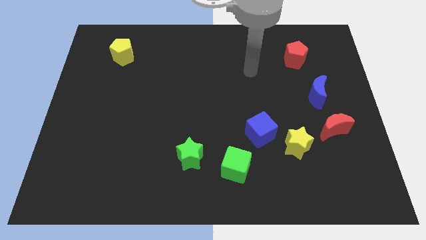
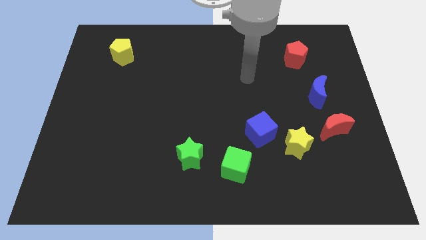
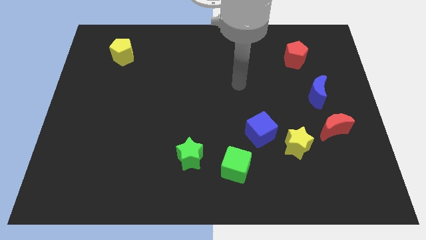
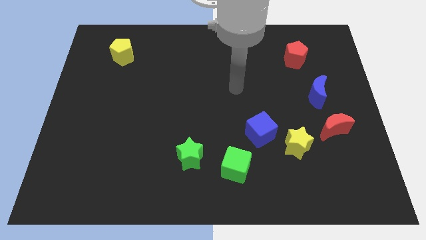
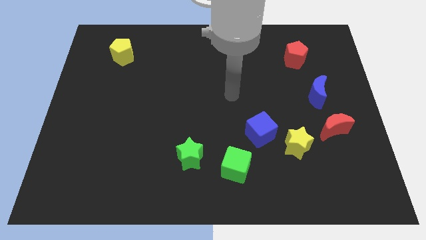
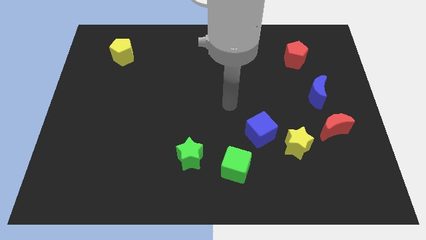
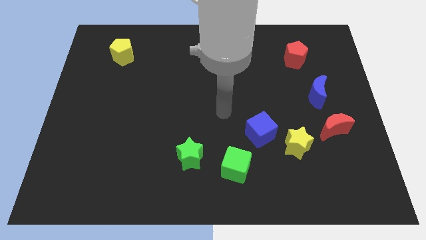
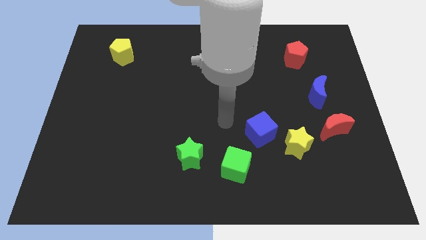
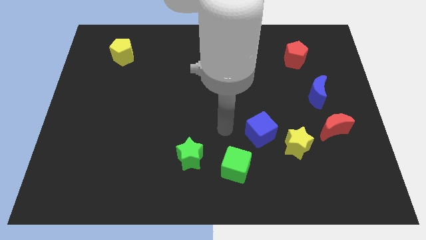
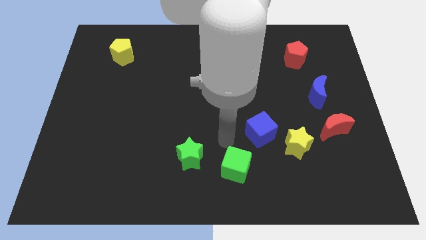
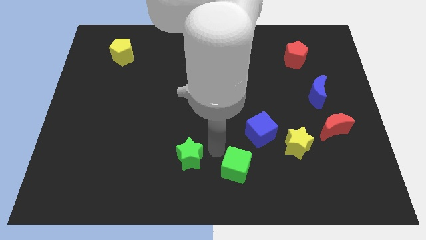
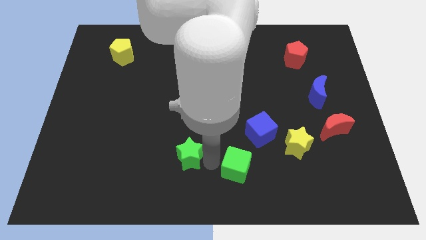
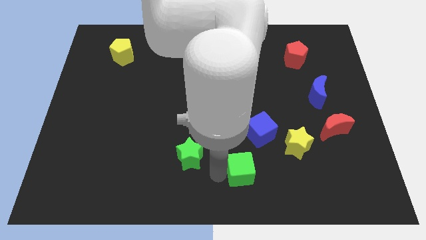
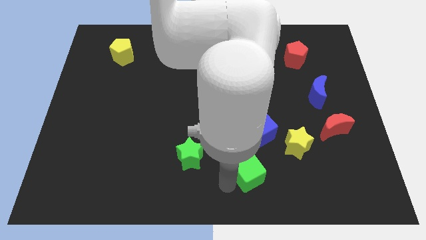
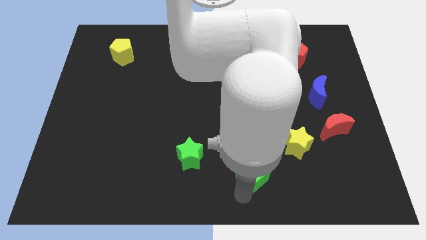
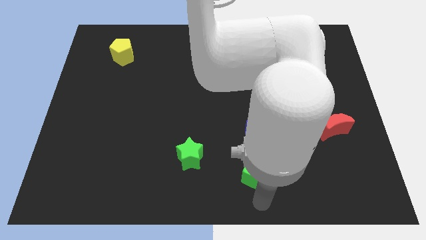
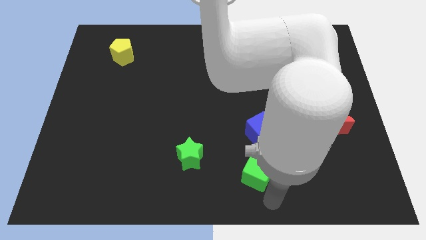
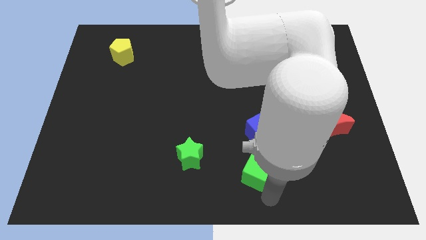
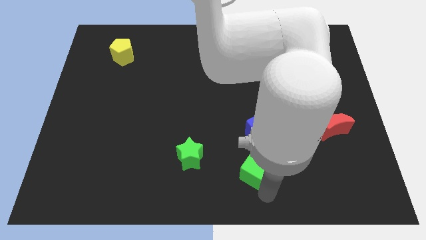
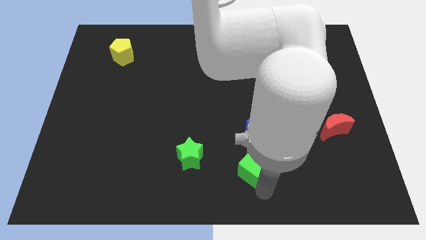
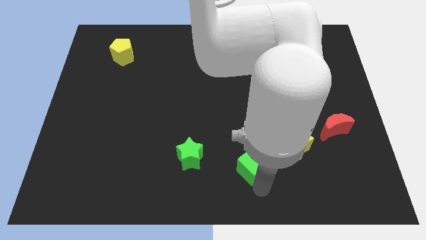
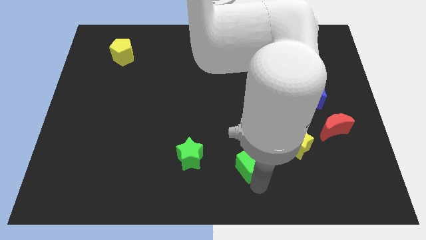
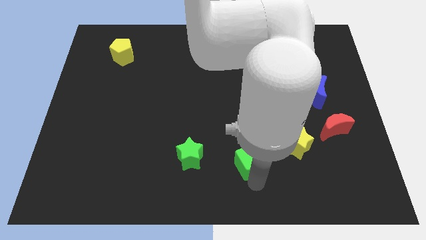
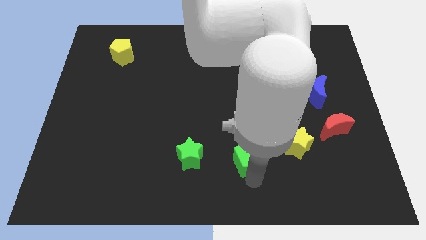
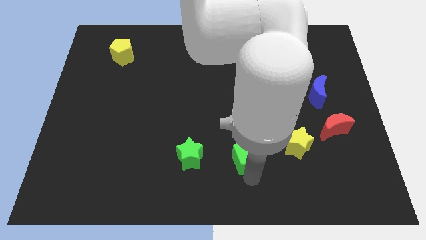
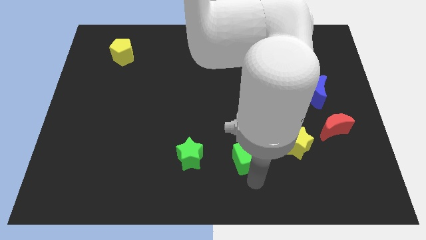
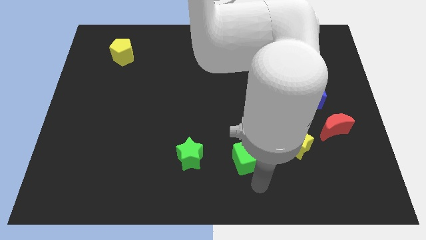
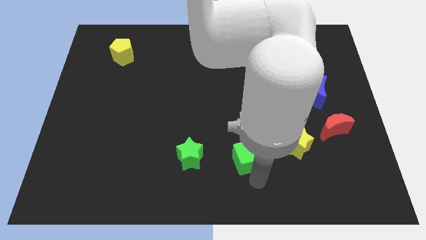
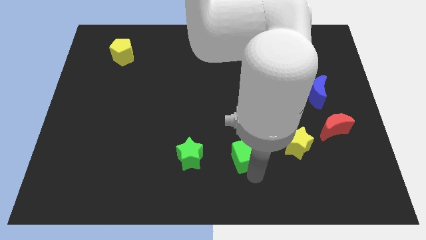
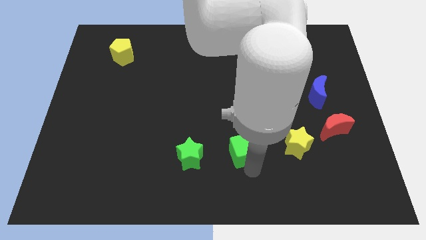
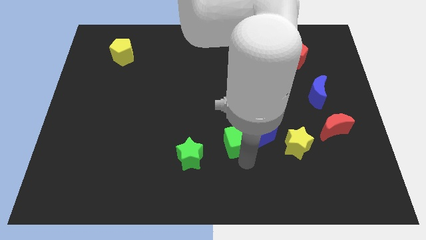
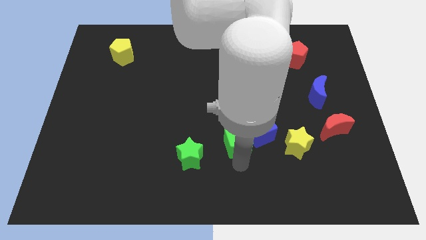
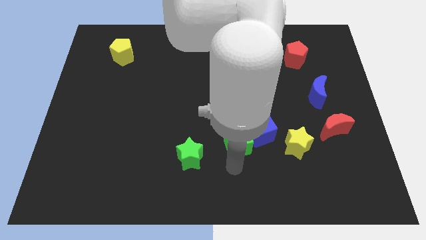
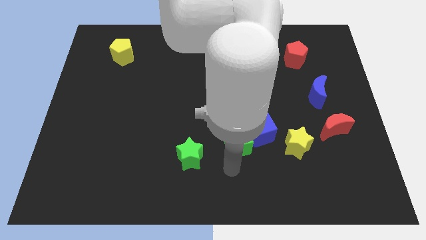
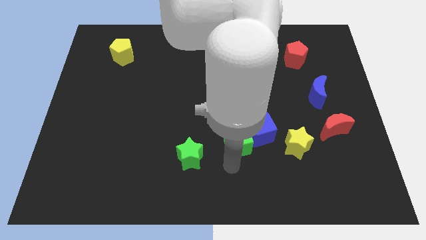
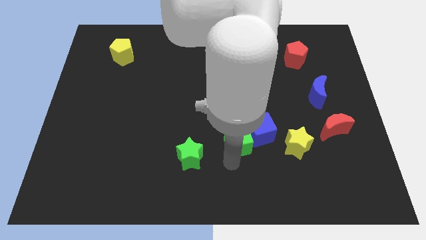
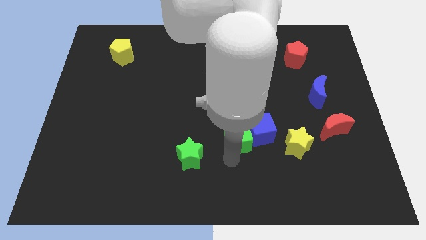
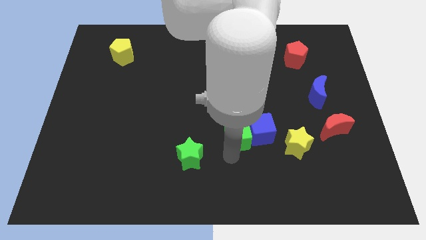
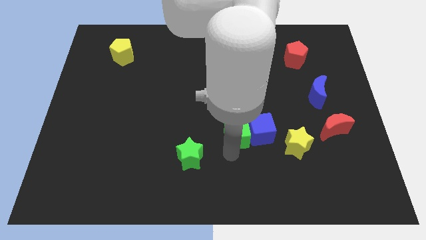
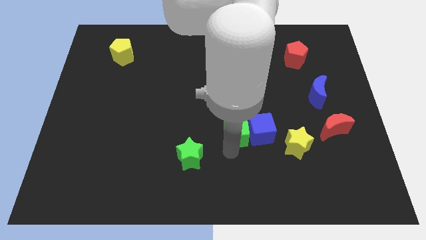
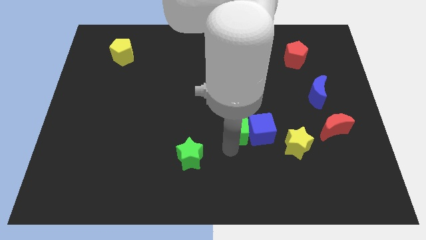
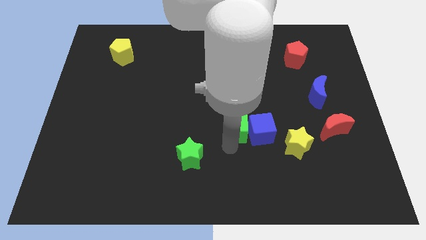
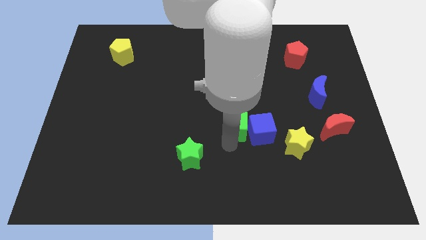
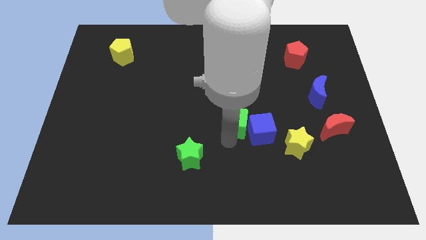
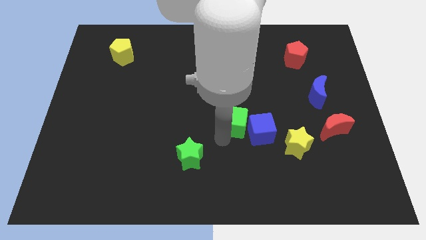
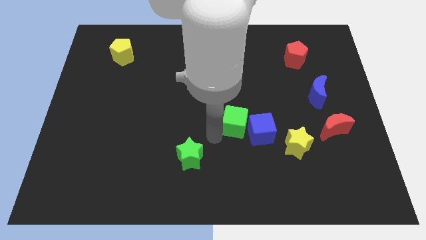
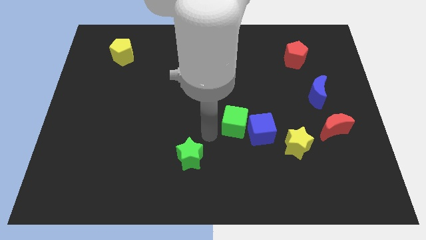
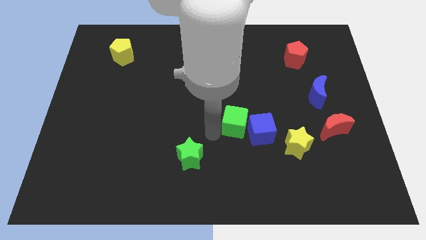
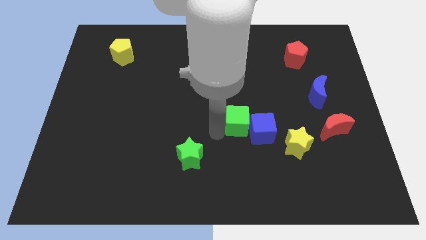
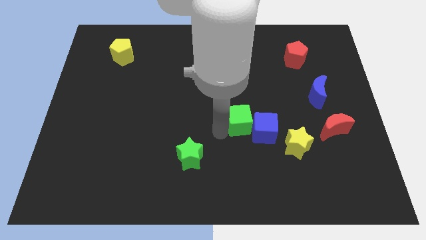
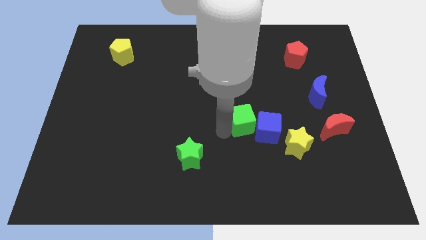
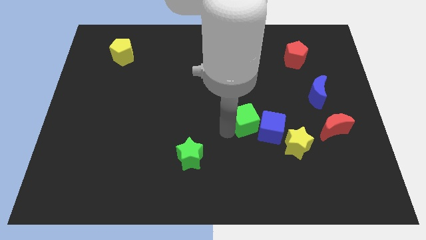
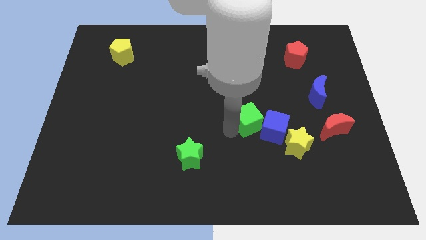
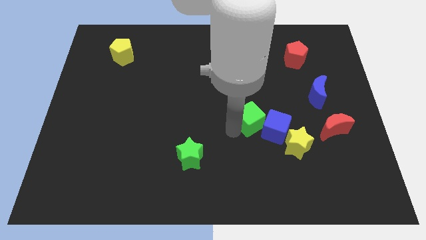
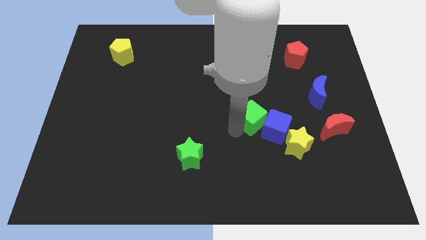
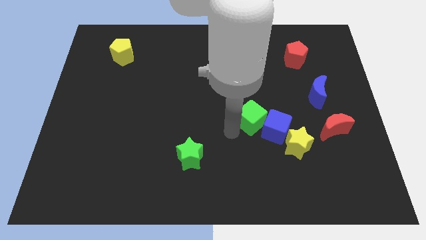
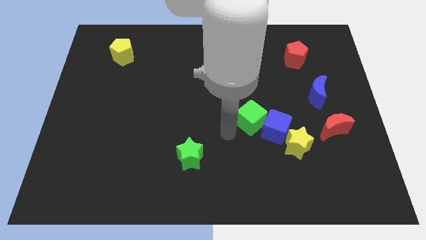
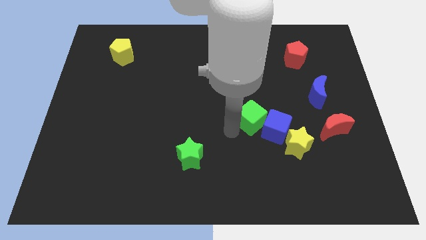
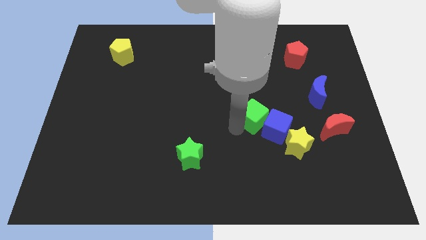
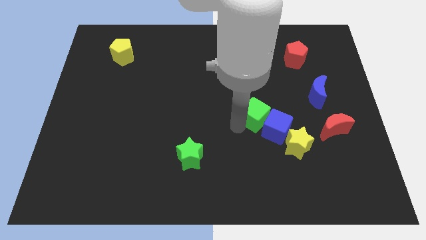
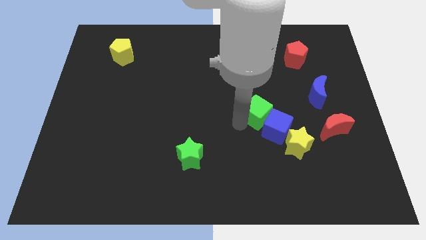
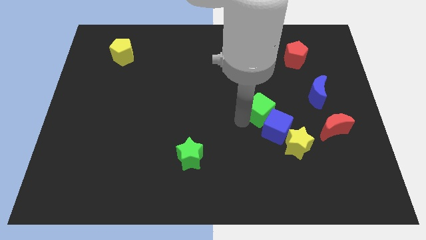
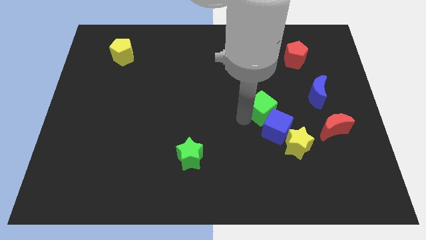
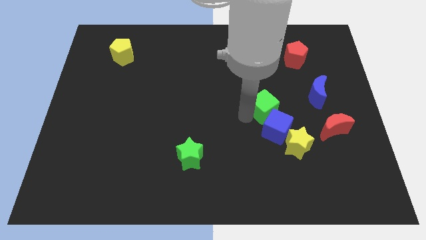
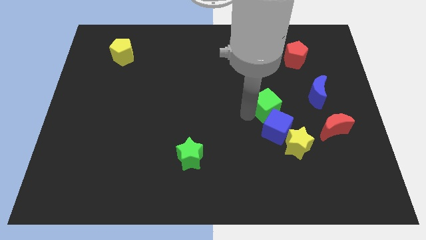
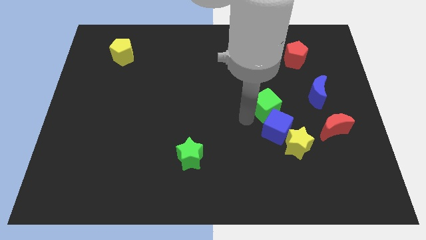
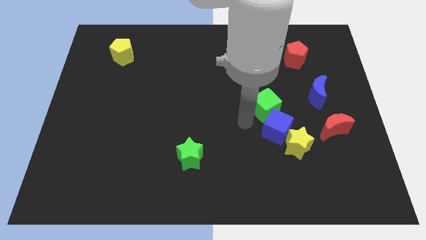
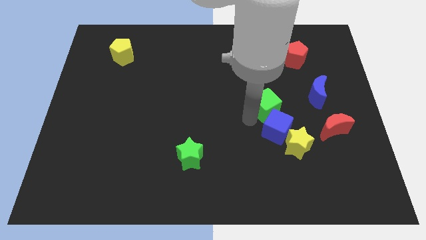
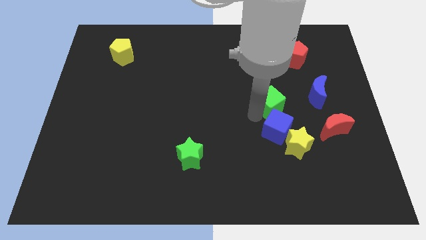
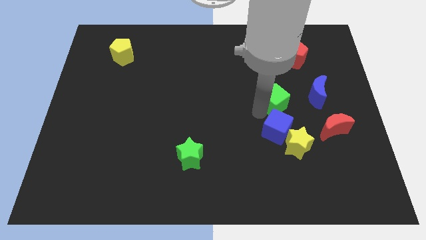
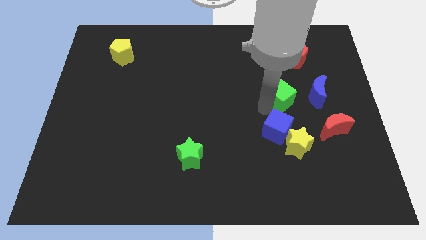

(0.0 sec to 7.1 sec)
push the green cube up and to the right

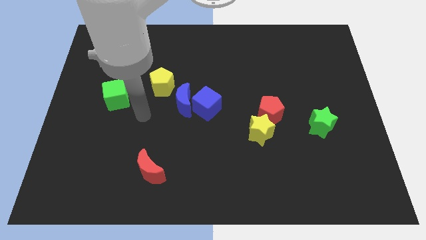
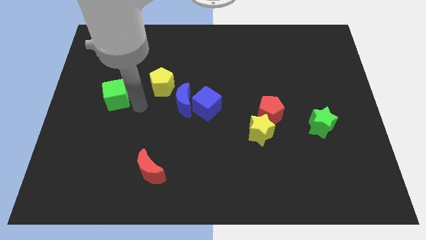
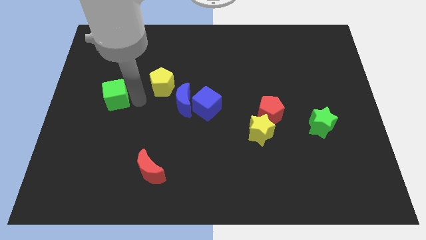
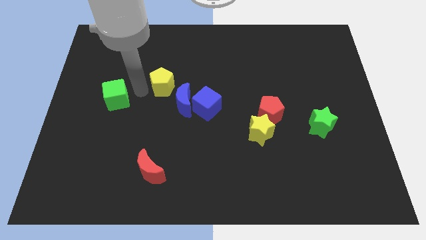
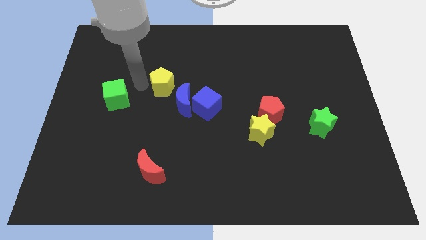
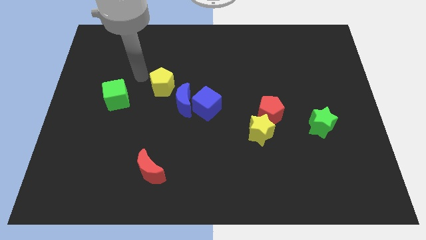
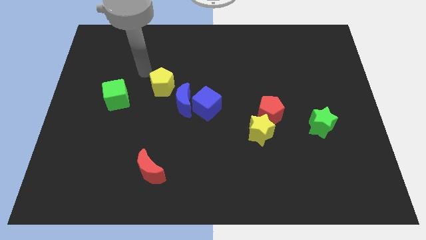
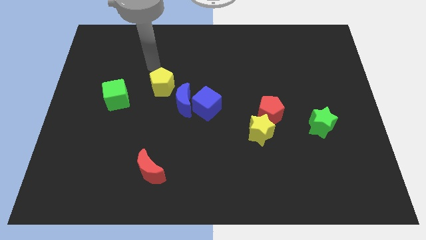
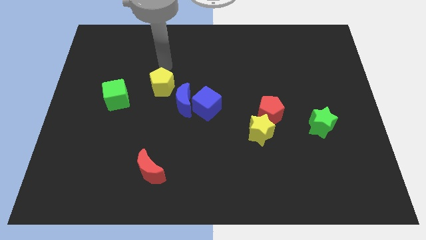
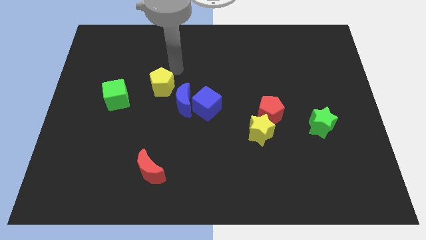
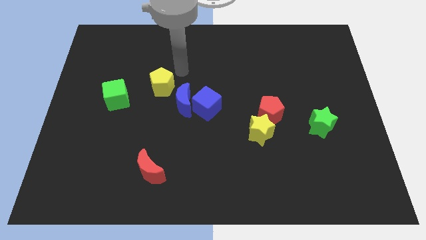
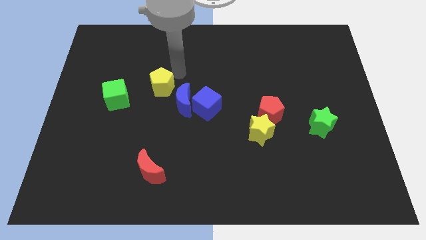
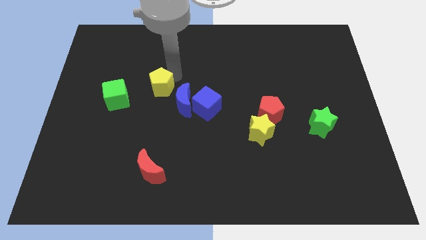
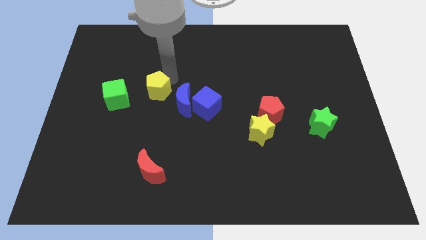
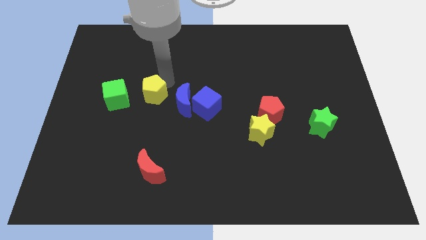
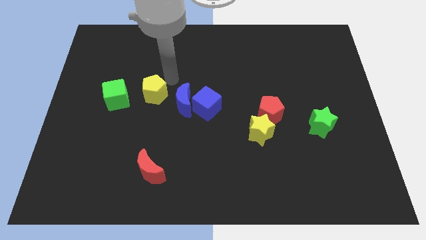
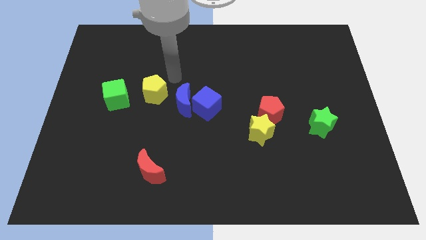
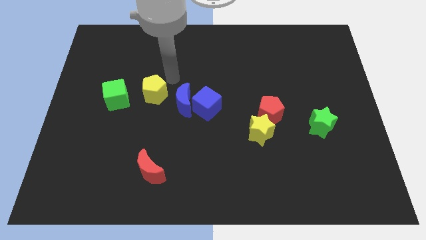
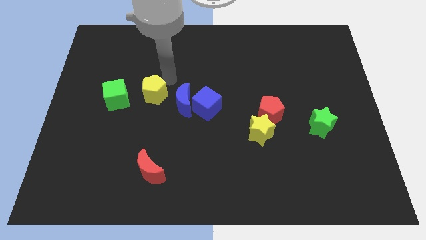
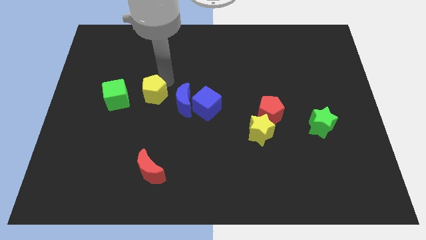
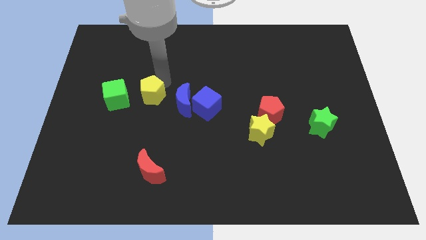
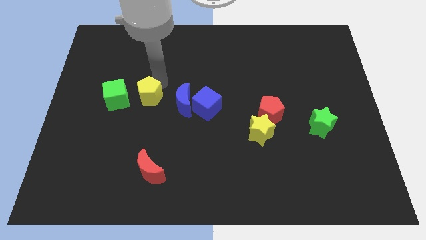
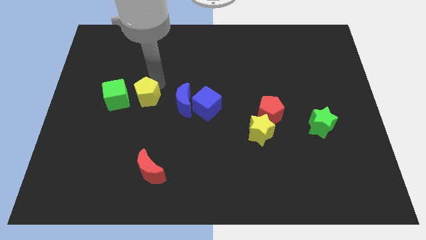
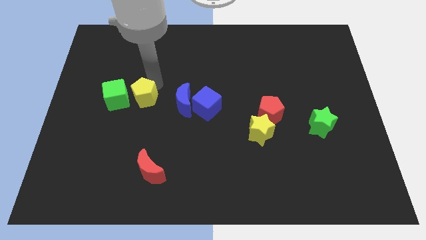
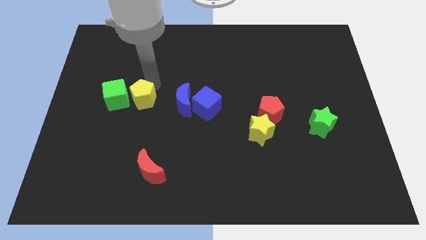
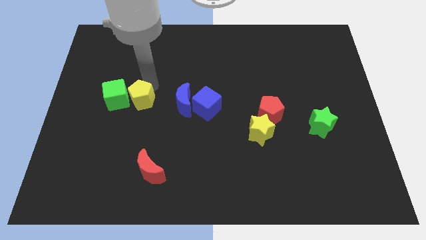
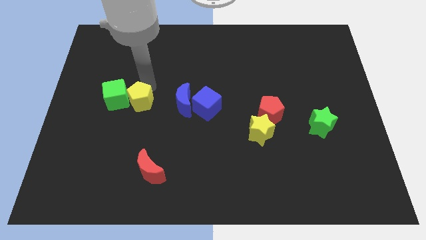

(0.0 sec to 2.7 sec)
push the yellow pentagon down and then left a bit
